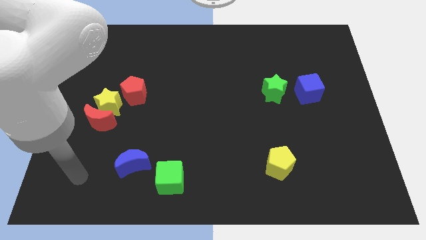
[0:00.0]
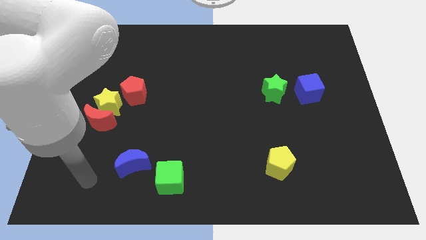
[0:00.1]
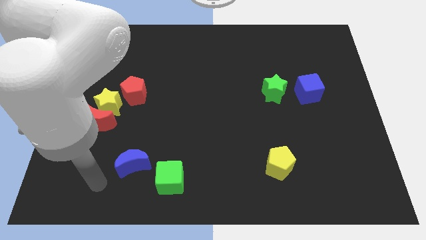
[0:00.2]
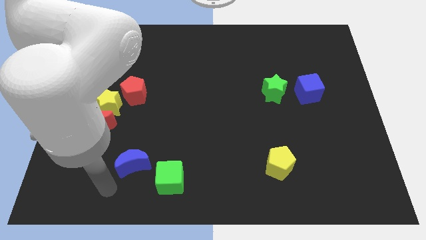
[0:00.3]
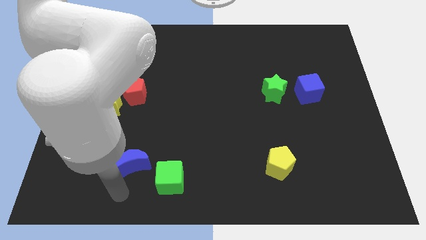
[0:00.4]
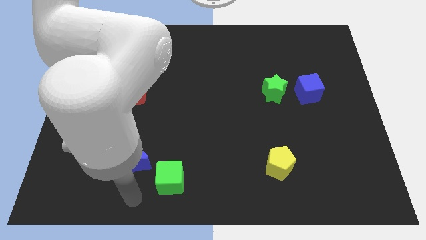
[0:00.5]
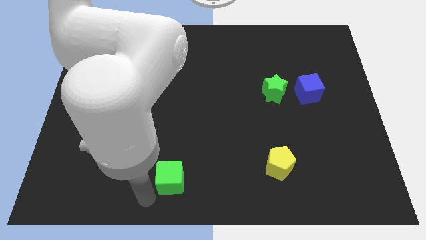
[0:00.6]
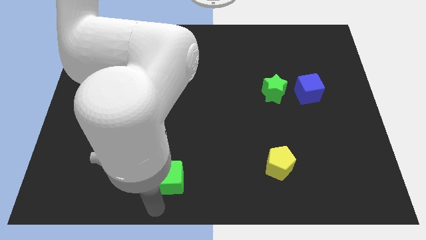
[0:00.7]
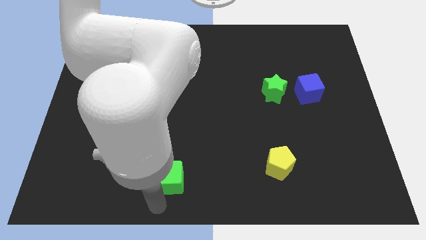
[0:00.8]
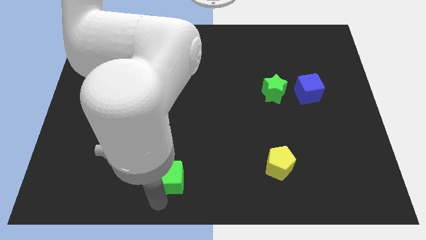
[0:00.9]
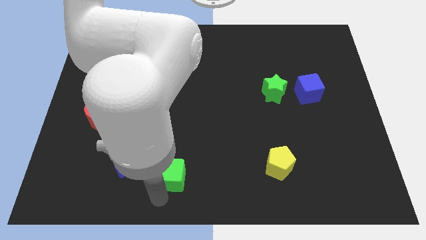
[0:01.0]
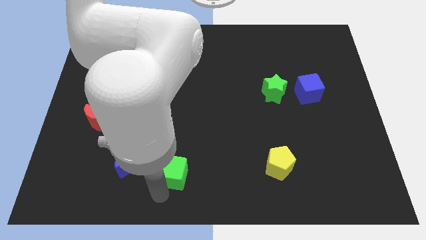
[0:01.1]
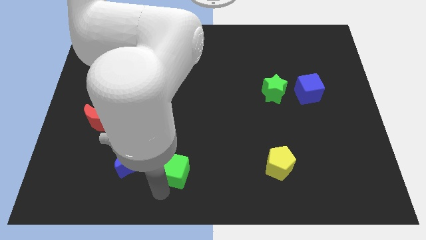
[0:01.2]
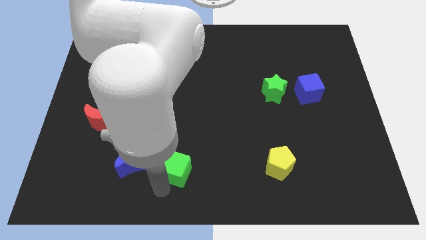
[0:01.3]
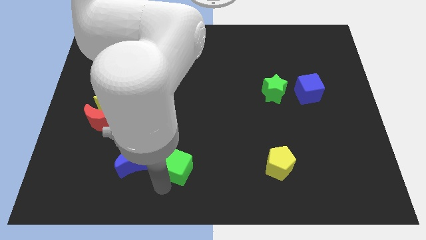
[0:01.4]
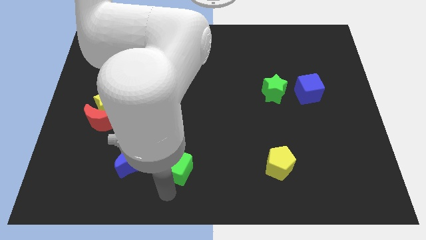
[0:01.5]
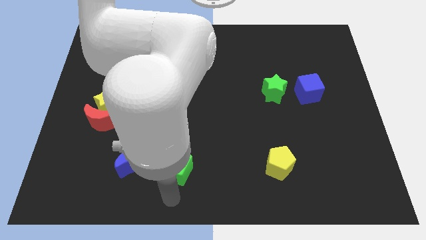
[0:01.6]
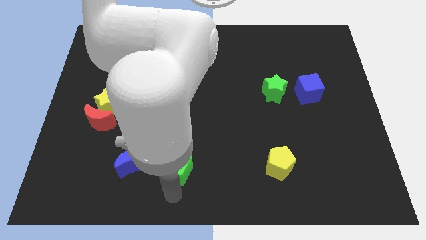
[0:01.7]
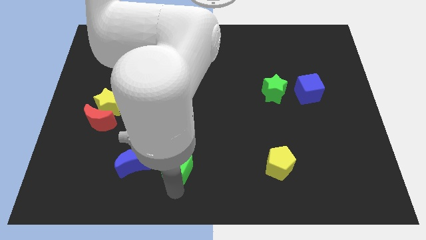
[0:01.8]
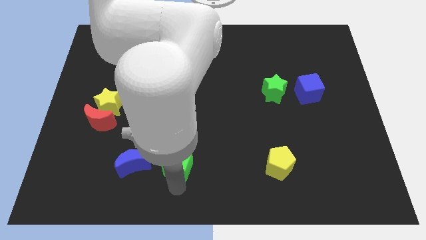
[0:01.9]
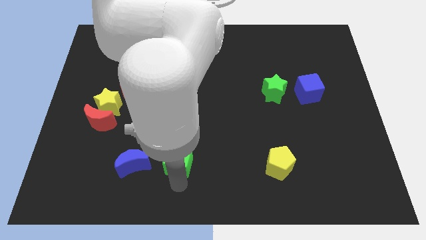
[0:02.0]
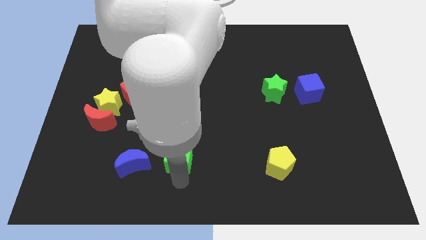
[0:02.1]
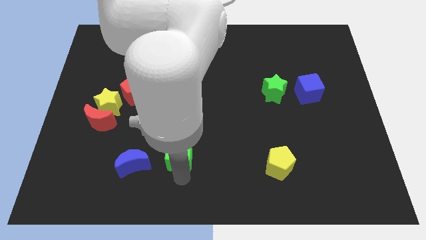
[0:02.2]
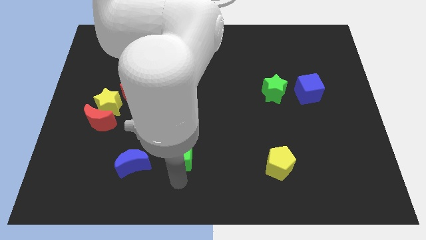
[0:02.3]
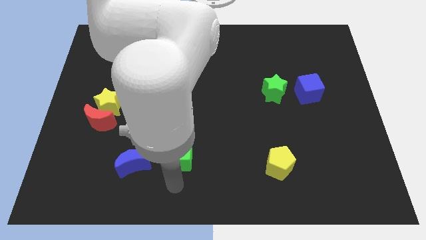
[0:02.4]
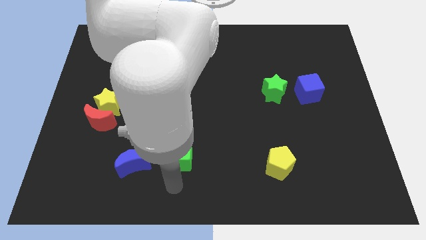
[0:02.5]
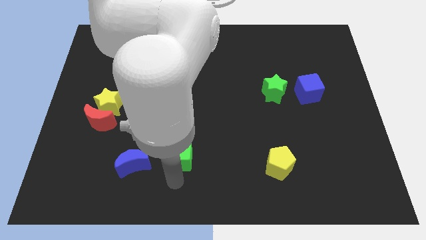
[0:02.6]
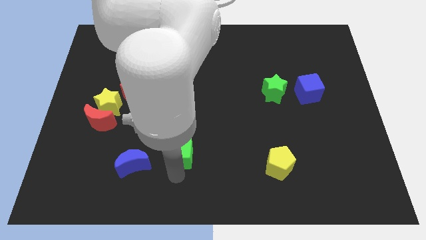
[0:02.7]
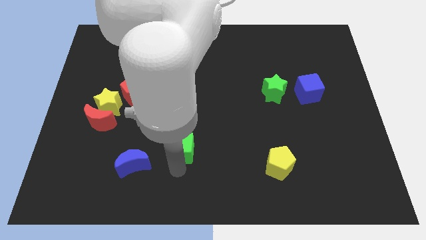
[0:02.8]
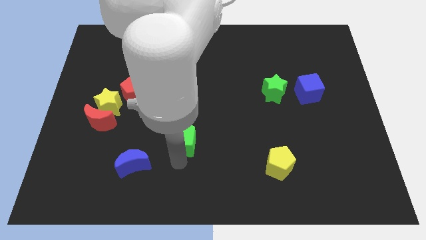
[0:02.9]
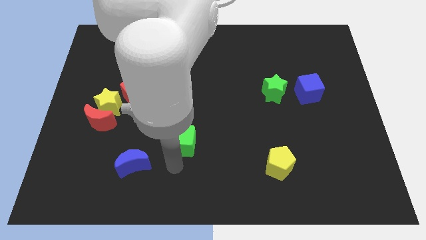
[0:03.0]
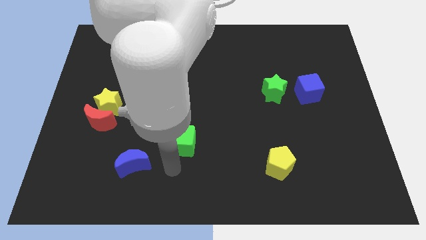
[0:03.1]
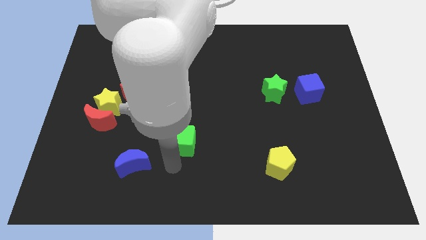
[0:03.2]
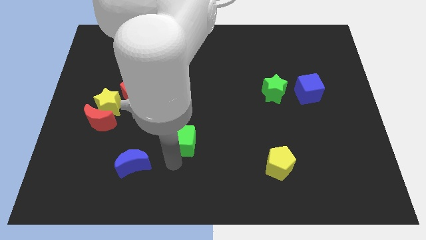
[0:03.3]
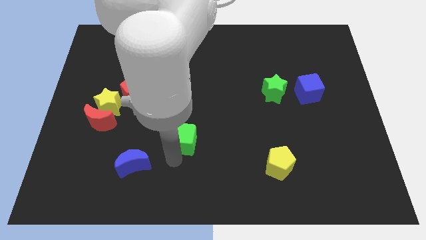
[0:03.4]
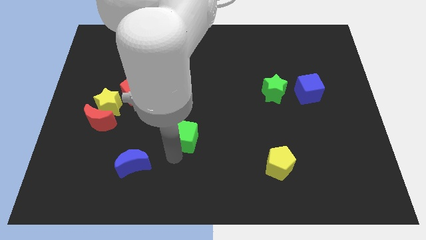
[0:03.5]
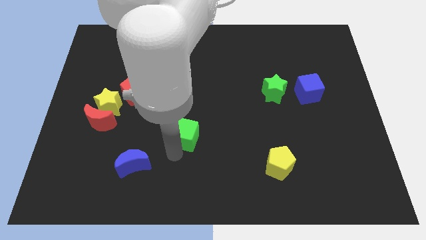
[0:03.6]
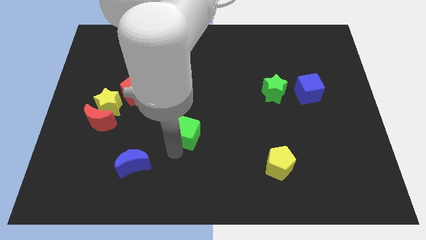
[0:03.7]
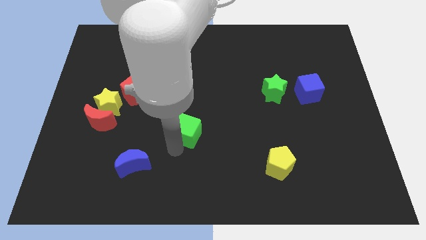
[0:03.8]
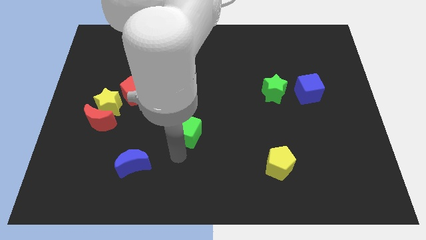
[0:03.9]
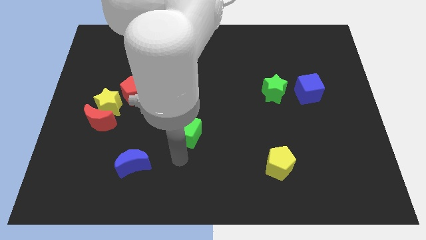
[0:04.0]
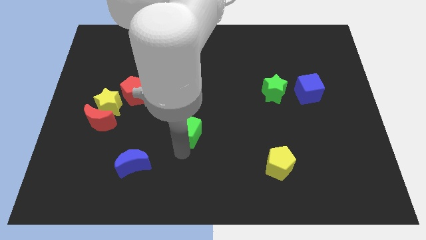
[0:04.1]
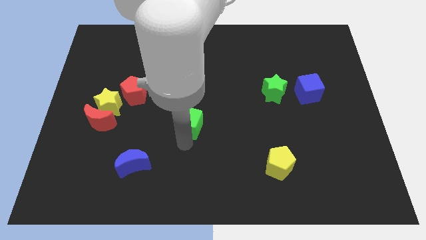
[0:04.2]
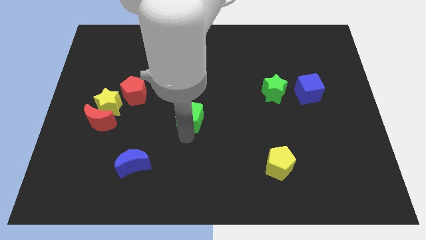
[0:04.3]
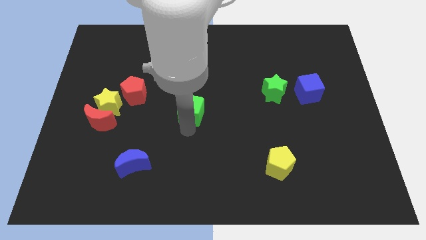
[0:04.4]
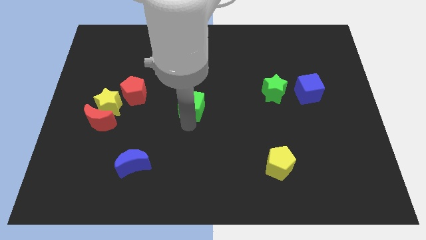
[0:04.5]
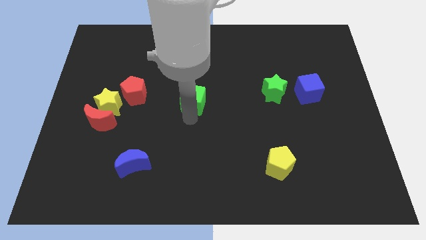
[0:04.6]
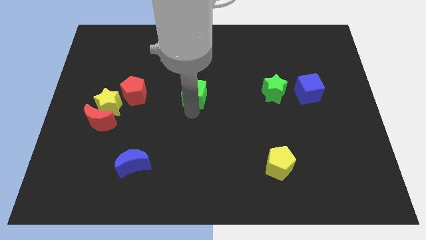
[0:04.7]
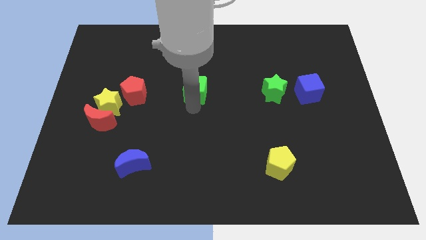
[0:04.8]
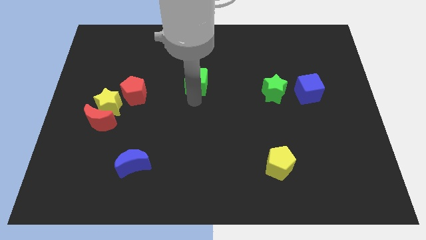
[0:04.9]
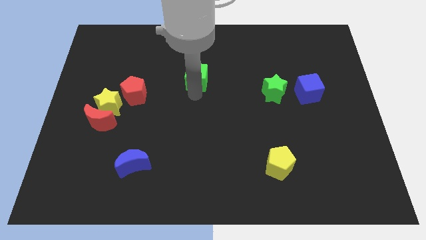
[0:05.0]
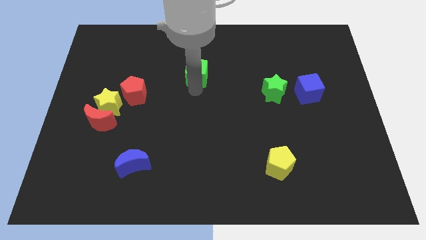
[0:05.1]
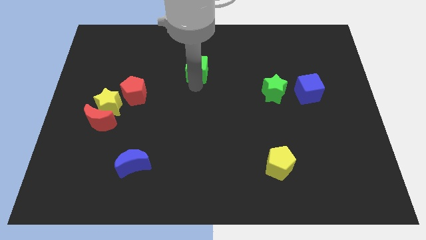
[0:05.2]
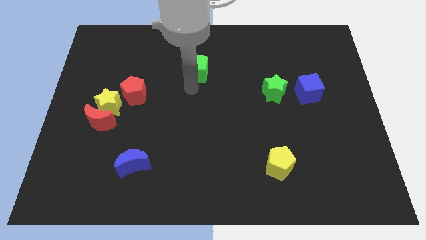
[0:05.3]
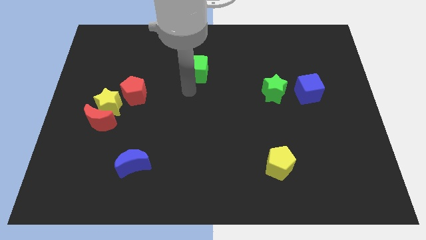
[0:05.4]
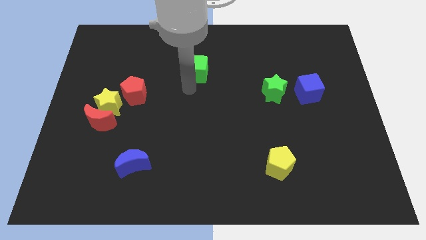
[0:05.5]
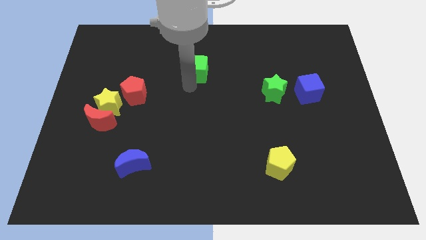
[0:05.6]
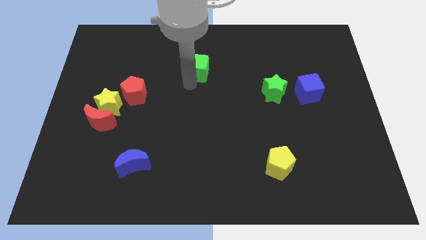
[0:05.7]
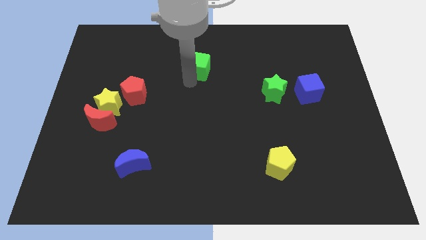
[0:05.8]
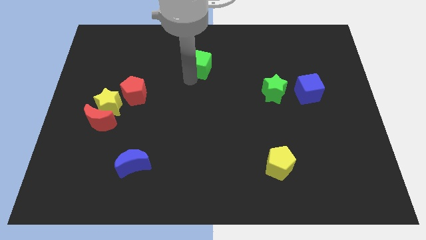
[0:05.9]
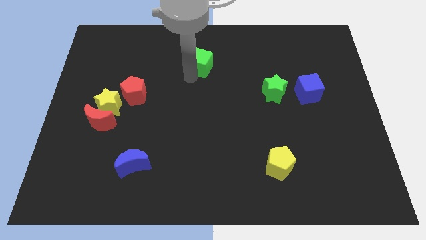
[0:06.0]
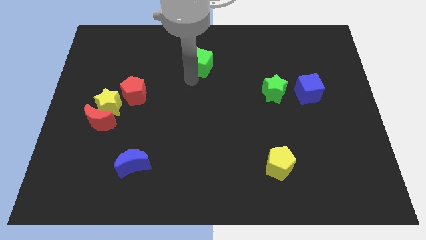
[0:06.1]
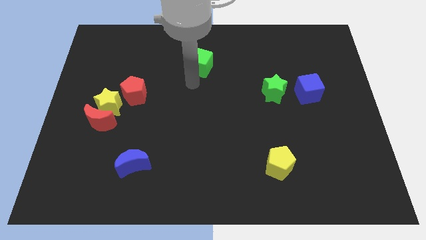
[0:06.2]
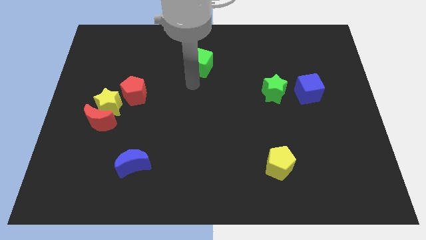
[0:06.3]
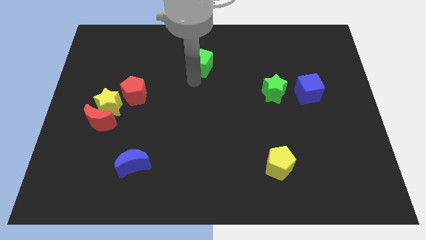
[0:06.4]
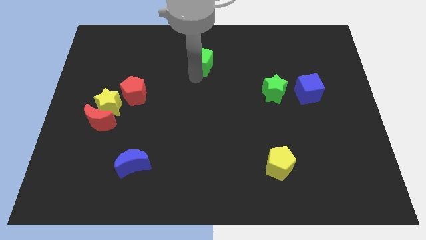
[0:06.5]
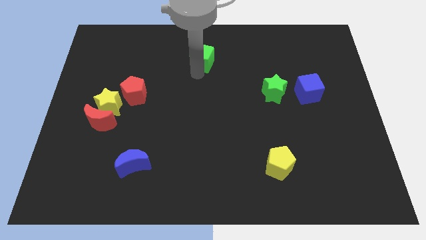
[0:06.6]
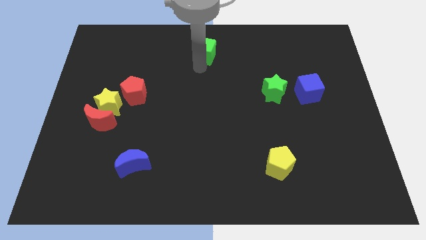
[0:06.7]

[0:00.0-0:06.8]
move the green cube to the towards your base

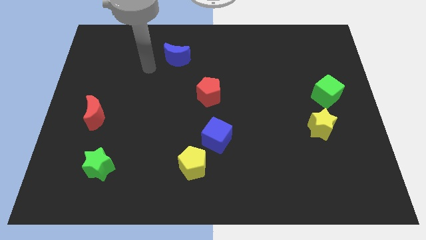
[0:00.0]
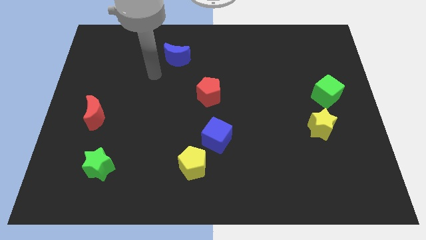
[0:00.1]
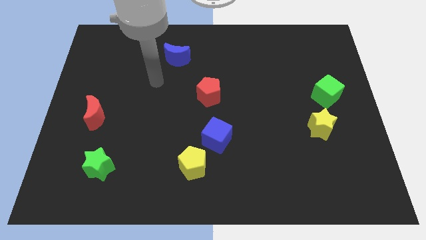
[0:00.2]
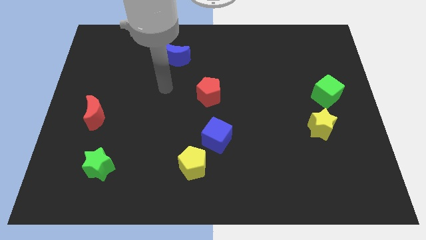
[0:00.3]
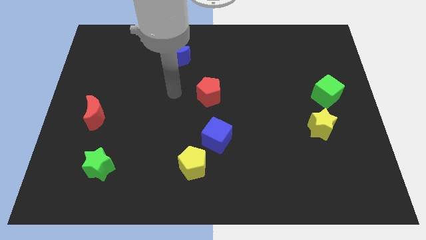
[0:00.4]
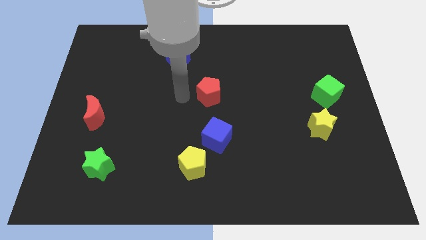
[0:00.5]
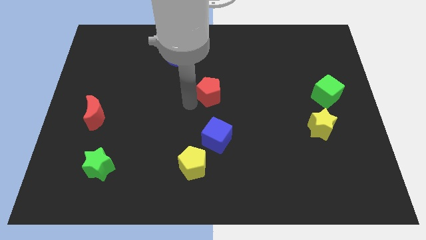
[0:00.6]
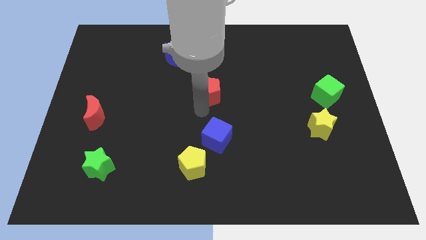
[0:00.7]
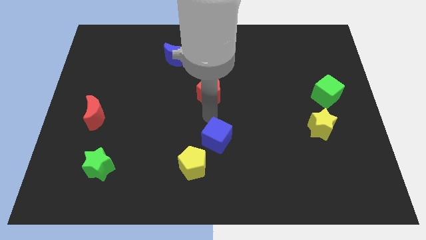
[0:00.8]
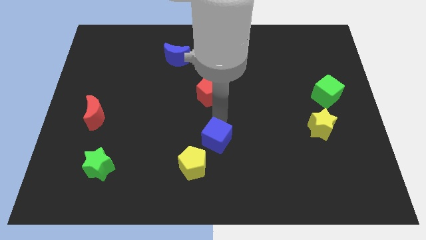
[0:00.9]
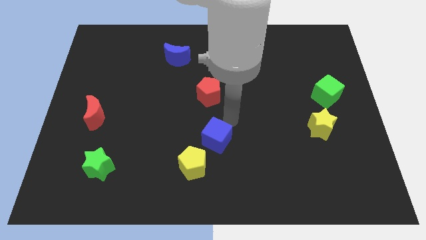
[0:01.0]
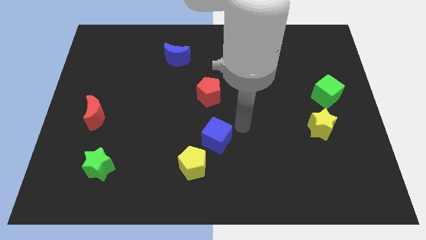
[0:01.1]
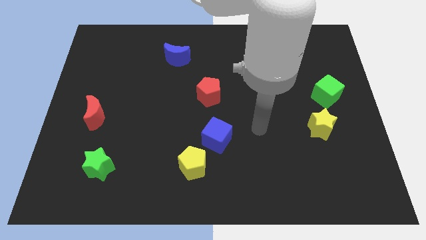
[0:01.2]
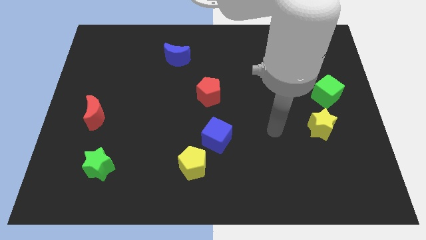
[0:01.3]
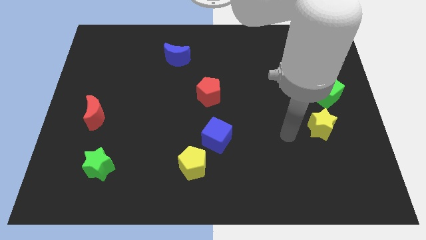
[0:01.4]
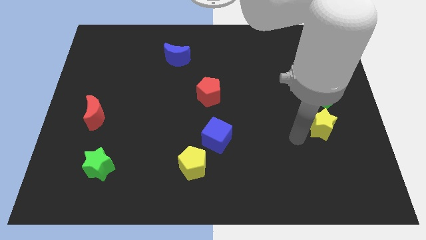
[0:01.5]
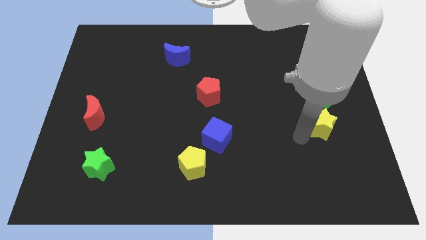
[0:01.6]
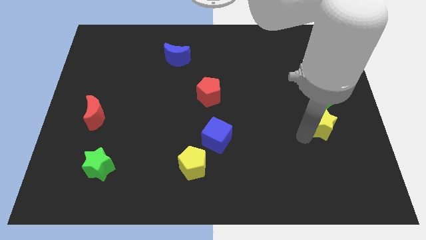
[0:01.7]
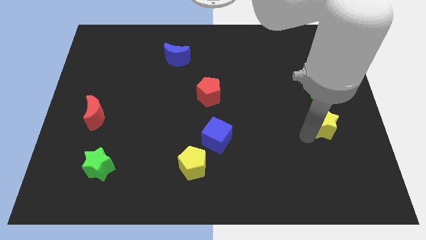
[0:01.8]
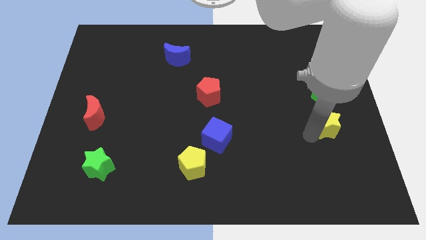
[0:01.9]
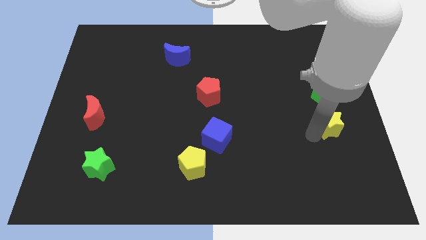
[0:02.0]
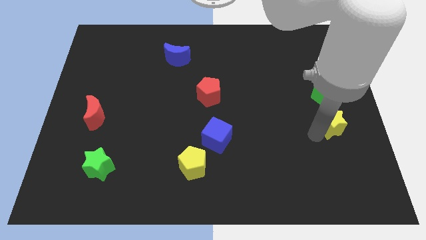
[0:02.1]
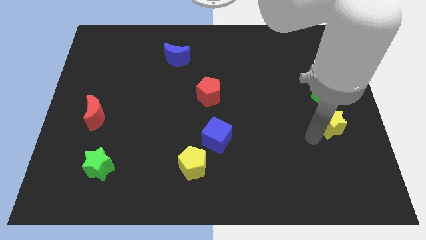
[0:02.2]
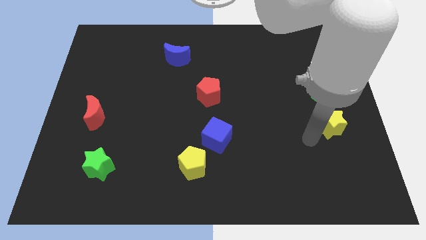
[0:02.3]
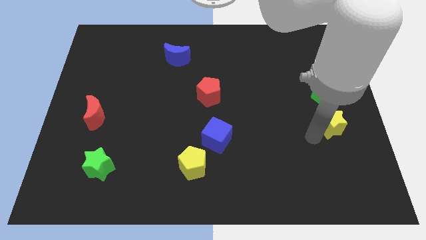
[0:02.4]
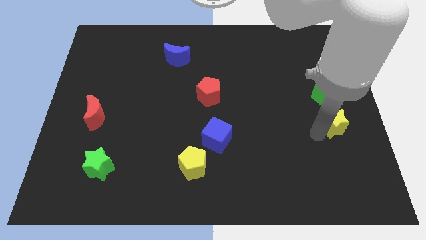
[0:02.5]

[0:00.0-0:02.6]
slide the yellow star to the right side
